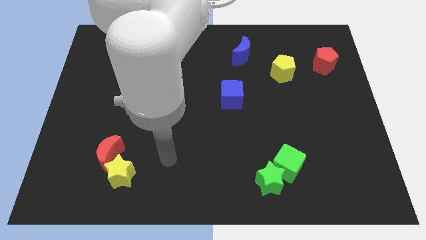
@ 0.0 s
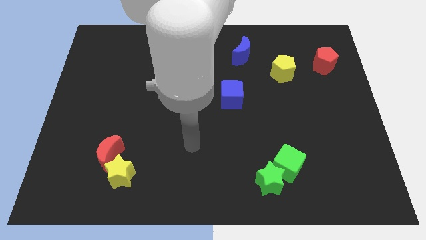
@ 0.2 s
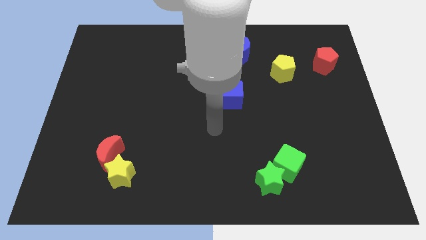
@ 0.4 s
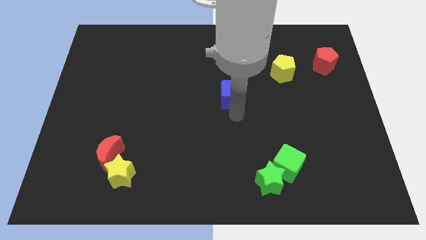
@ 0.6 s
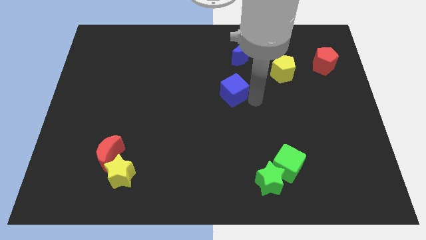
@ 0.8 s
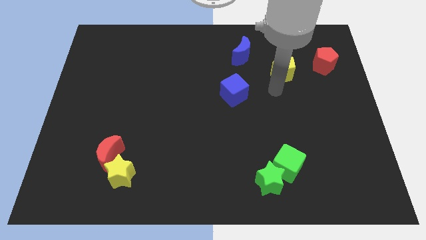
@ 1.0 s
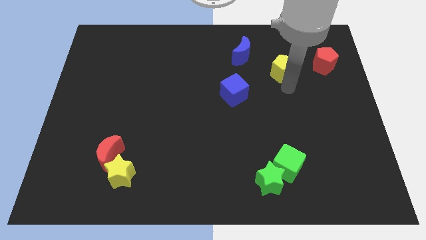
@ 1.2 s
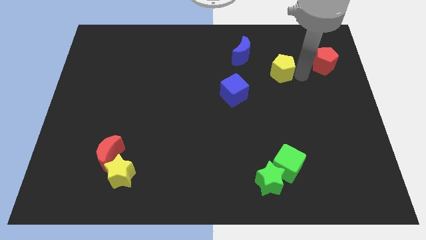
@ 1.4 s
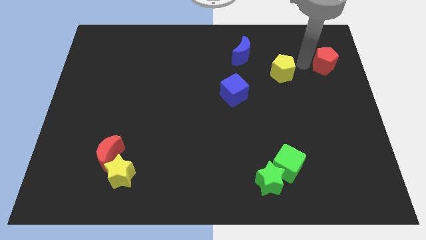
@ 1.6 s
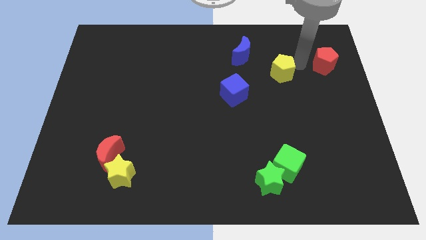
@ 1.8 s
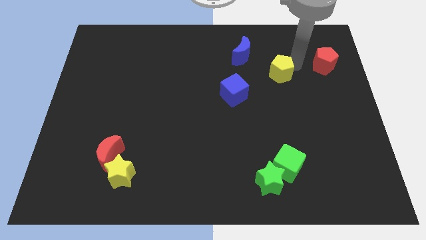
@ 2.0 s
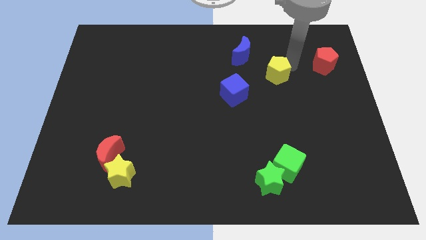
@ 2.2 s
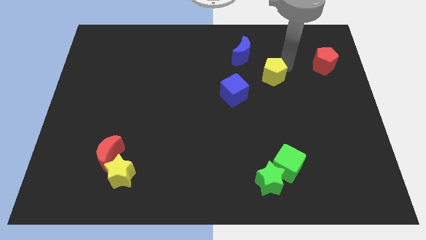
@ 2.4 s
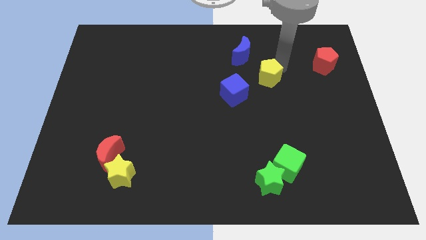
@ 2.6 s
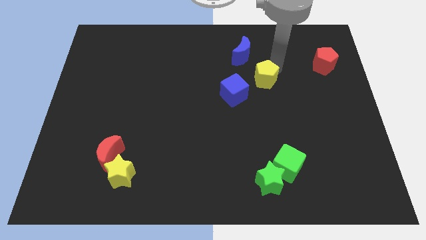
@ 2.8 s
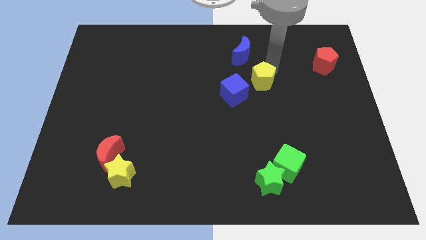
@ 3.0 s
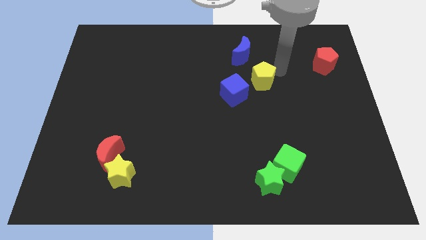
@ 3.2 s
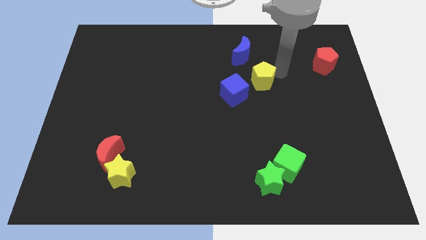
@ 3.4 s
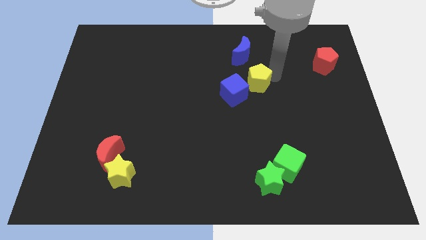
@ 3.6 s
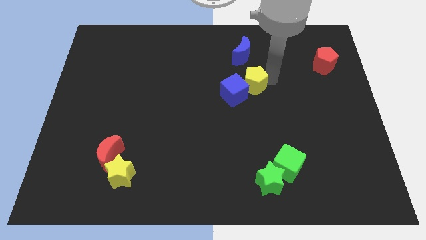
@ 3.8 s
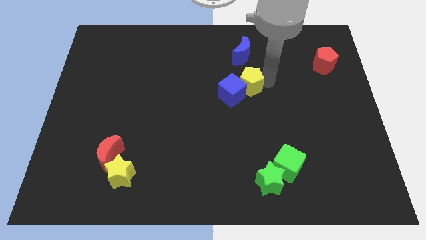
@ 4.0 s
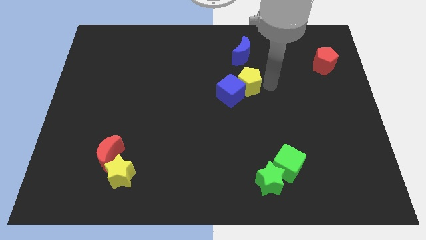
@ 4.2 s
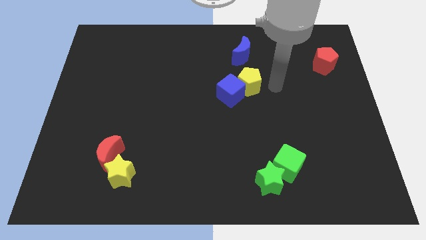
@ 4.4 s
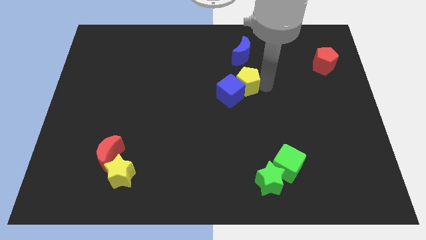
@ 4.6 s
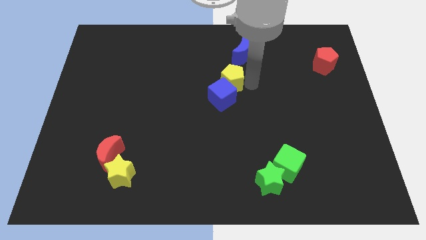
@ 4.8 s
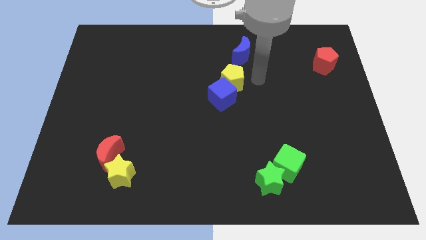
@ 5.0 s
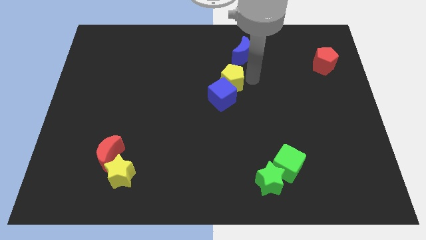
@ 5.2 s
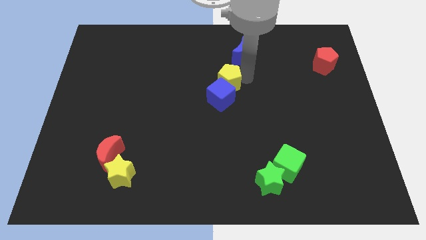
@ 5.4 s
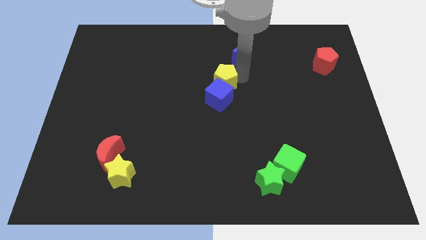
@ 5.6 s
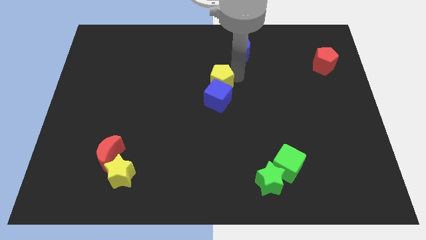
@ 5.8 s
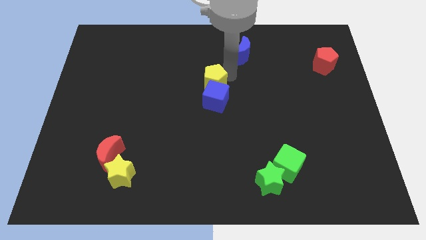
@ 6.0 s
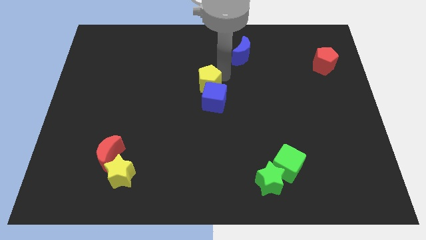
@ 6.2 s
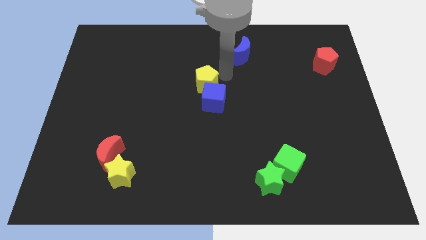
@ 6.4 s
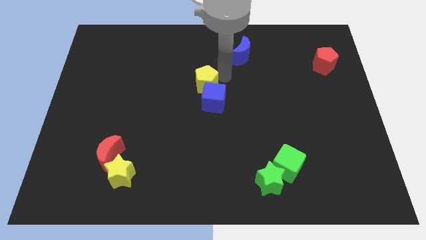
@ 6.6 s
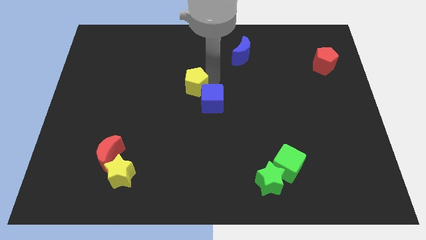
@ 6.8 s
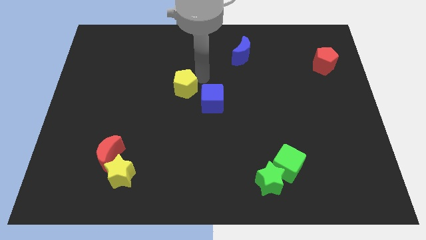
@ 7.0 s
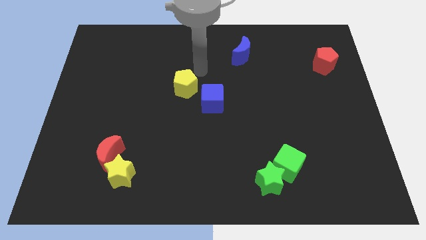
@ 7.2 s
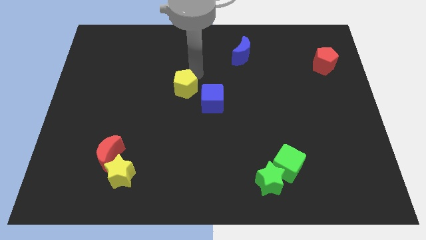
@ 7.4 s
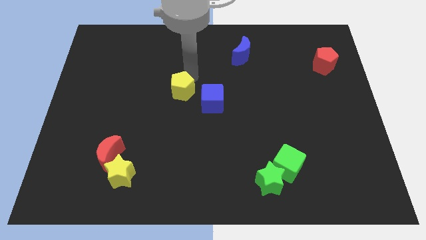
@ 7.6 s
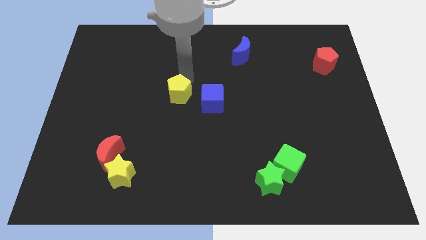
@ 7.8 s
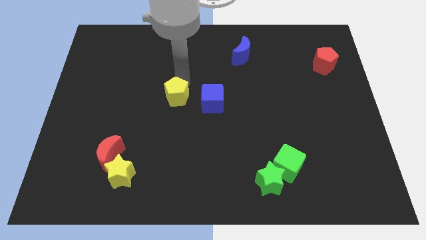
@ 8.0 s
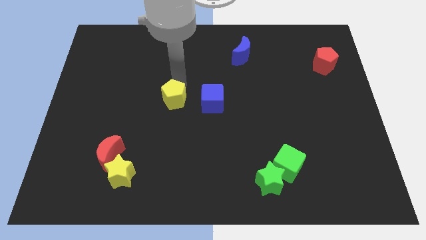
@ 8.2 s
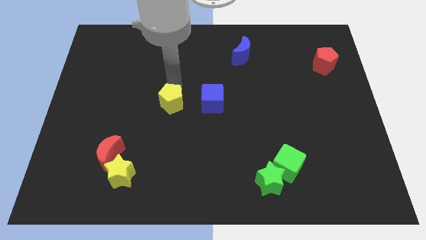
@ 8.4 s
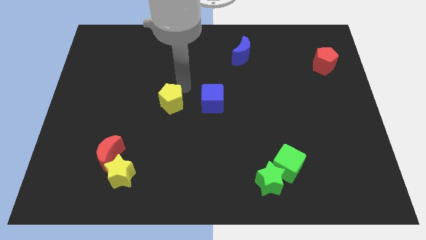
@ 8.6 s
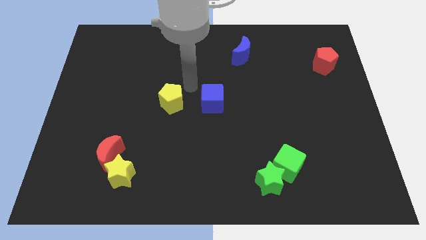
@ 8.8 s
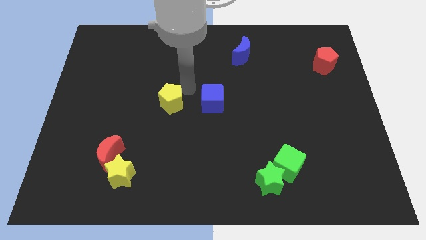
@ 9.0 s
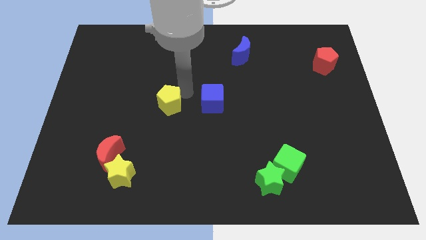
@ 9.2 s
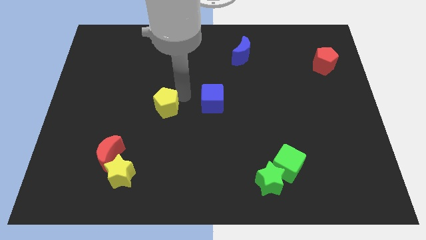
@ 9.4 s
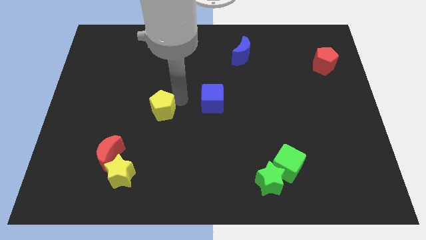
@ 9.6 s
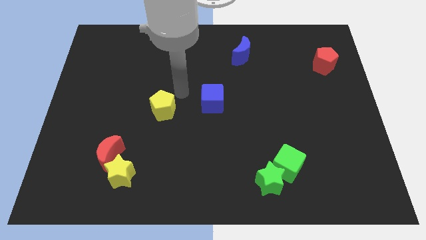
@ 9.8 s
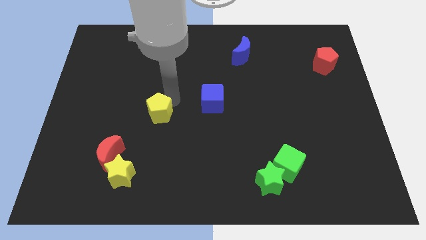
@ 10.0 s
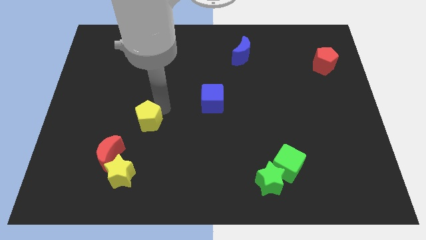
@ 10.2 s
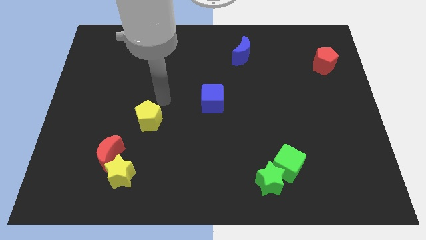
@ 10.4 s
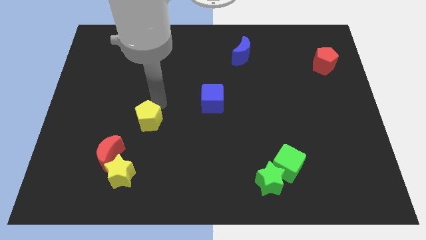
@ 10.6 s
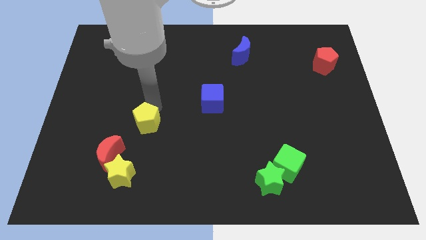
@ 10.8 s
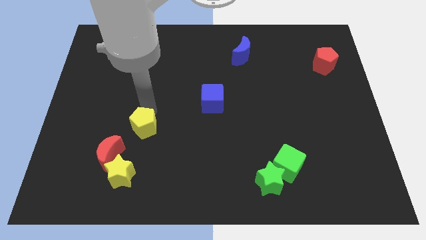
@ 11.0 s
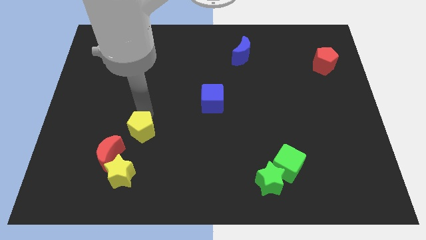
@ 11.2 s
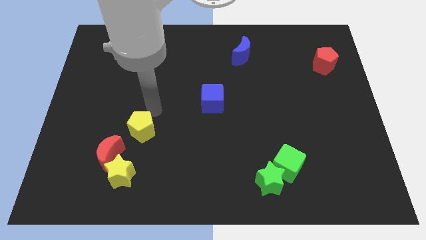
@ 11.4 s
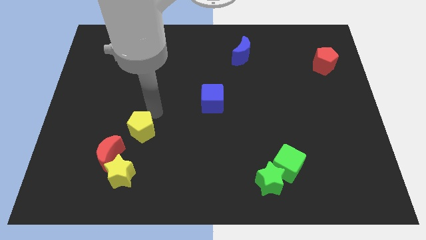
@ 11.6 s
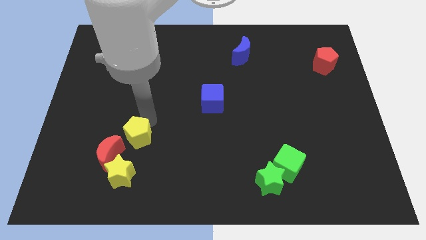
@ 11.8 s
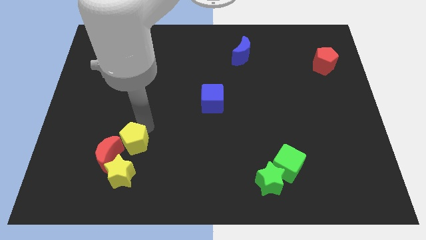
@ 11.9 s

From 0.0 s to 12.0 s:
put the yellow pentagon to the red moon

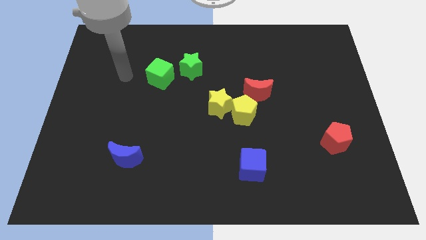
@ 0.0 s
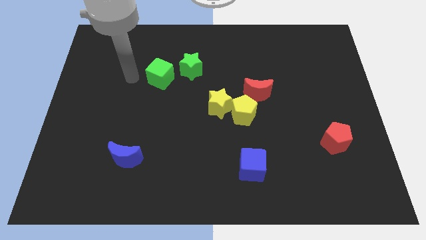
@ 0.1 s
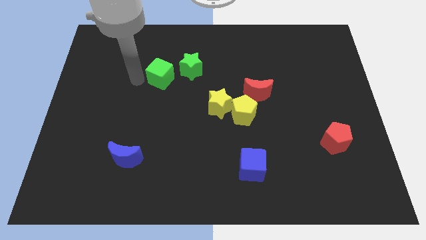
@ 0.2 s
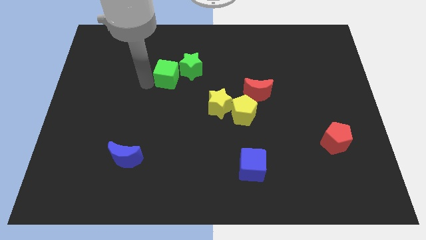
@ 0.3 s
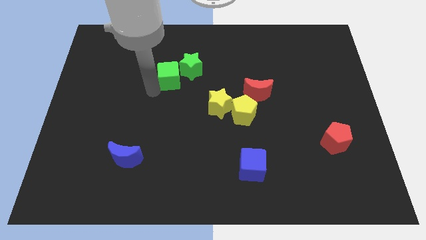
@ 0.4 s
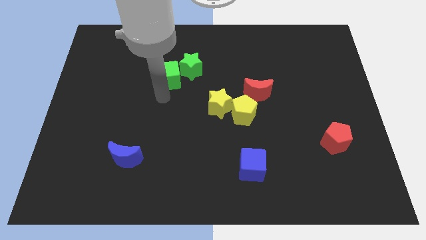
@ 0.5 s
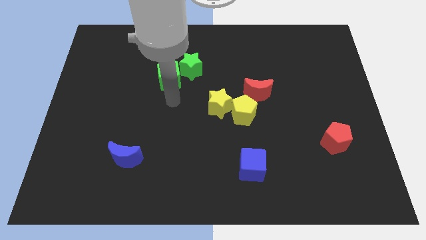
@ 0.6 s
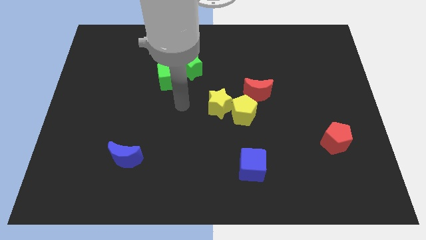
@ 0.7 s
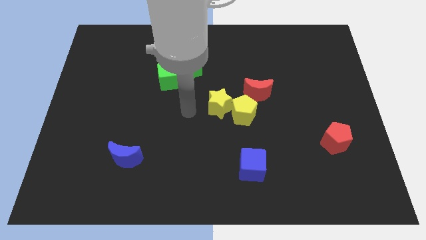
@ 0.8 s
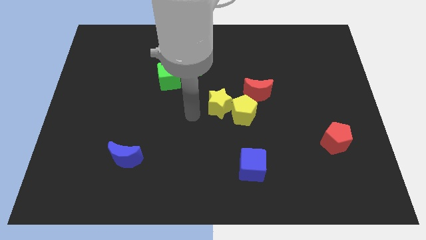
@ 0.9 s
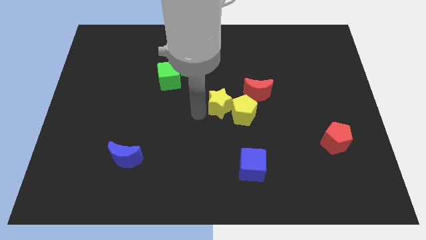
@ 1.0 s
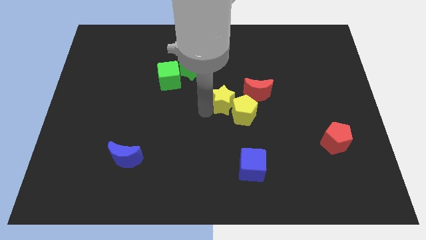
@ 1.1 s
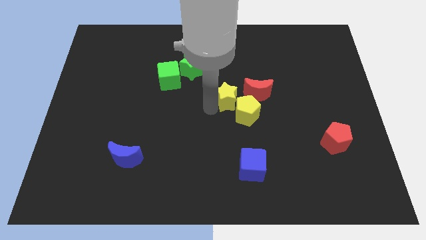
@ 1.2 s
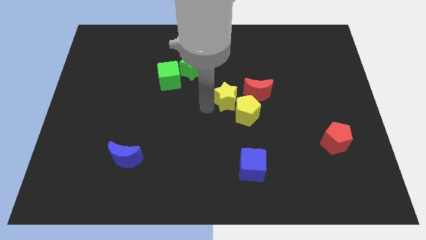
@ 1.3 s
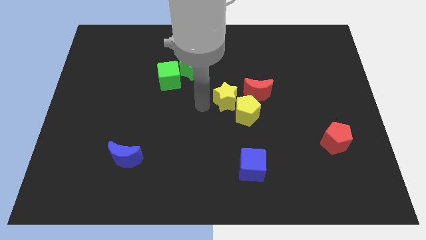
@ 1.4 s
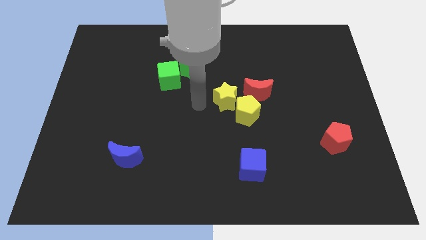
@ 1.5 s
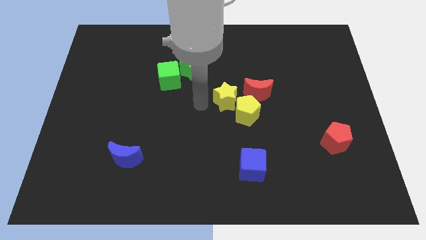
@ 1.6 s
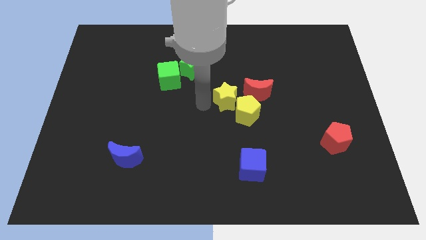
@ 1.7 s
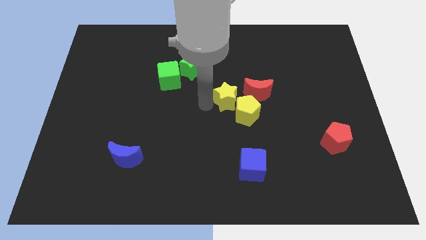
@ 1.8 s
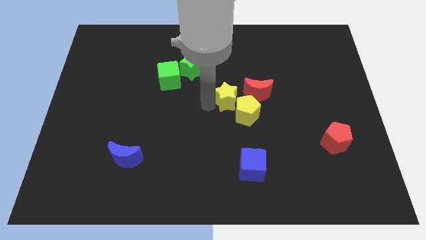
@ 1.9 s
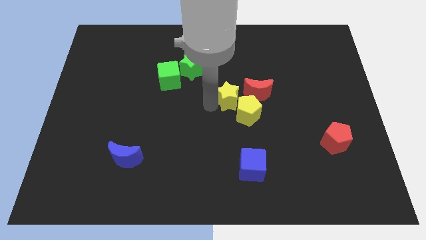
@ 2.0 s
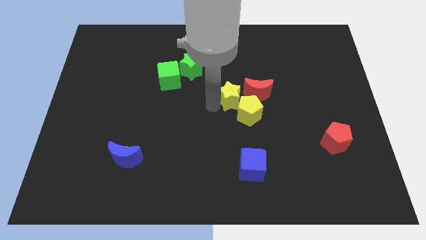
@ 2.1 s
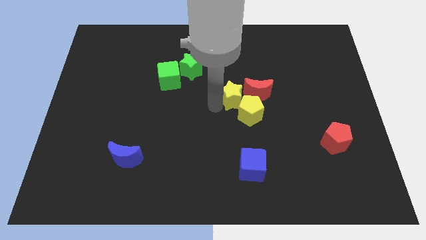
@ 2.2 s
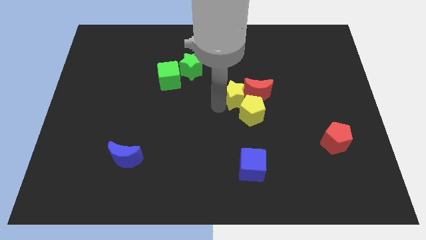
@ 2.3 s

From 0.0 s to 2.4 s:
move the yellow star close to the red moon
